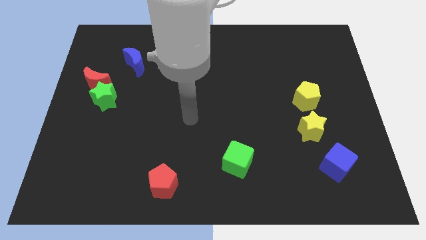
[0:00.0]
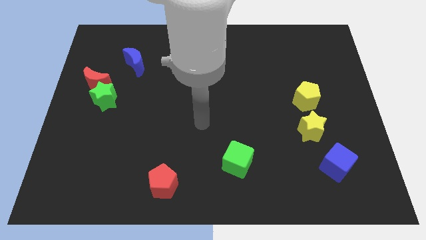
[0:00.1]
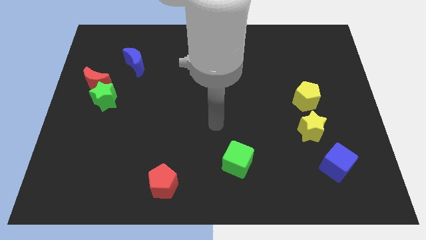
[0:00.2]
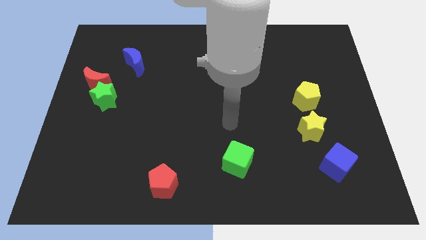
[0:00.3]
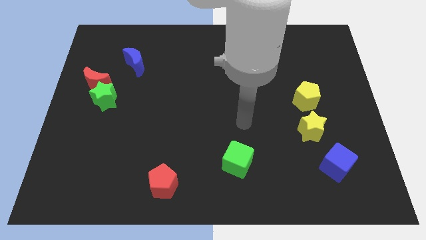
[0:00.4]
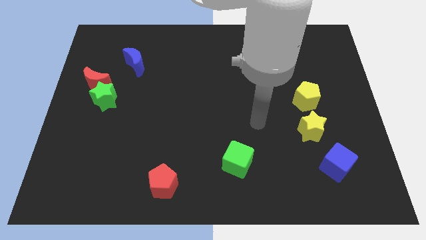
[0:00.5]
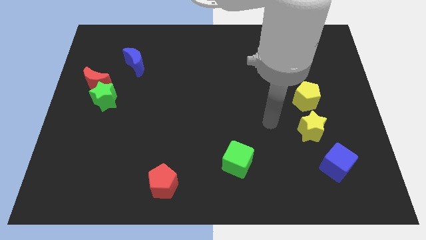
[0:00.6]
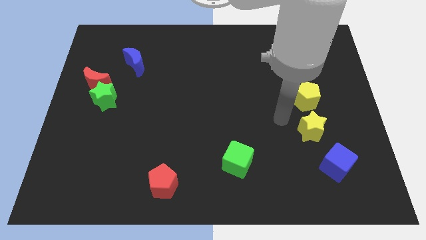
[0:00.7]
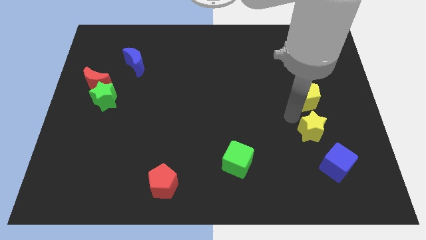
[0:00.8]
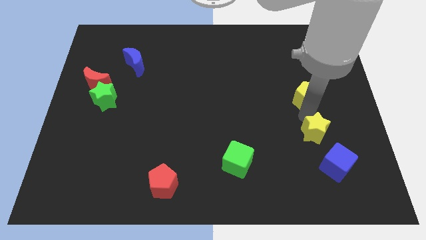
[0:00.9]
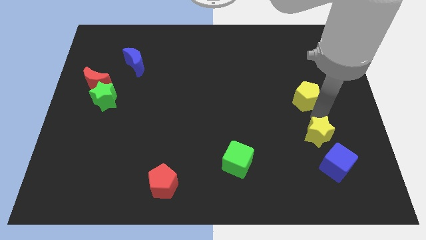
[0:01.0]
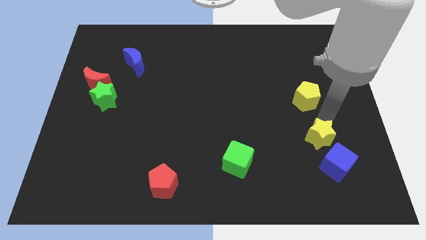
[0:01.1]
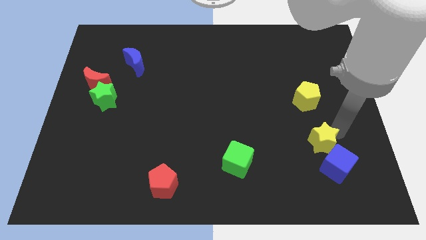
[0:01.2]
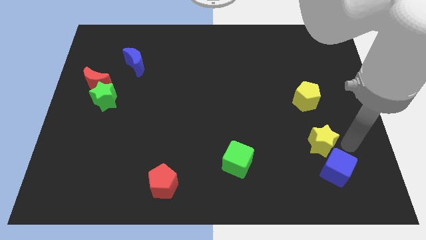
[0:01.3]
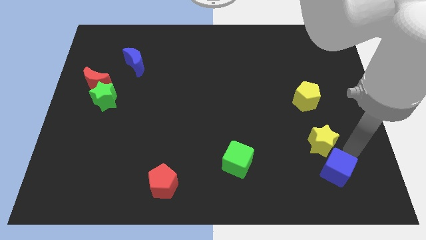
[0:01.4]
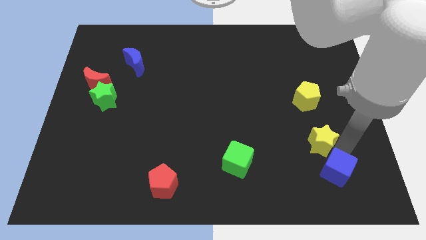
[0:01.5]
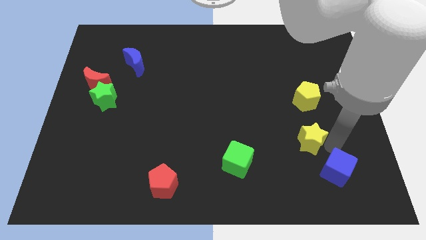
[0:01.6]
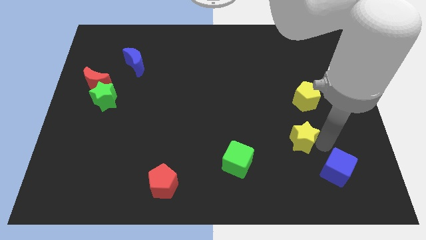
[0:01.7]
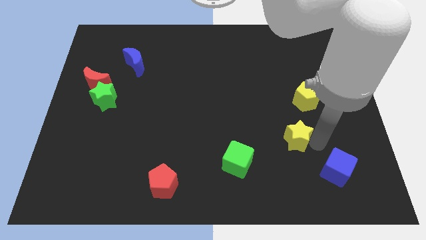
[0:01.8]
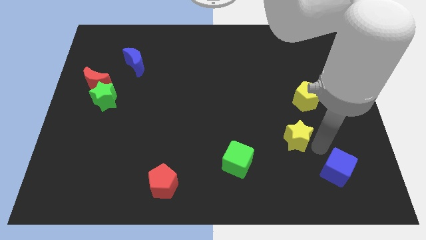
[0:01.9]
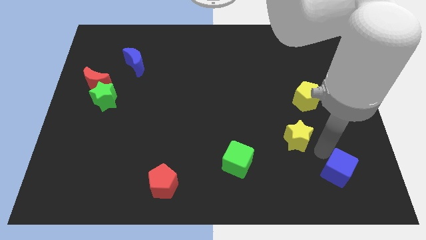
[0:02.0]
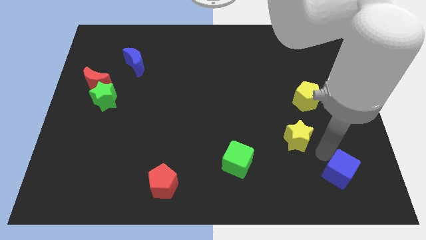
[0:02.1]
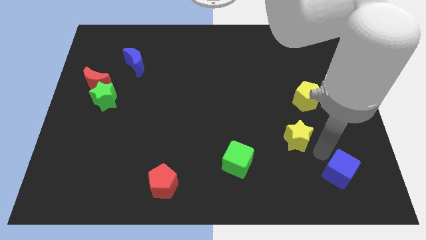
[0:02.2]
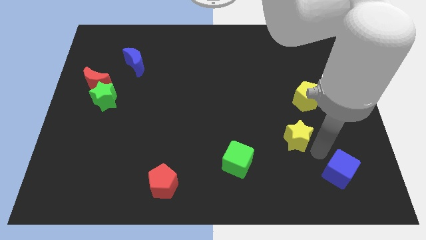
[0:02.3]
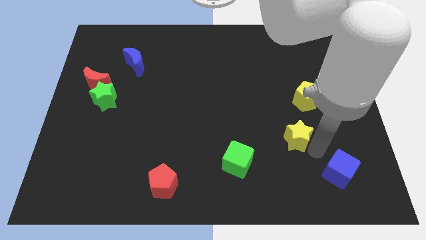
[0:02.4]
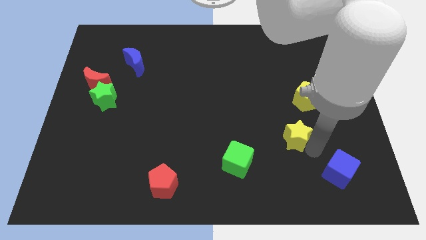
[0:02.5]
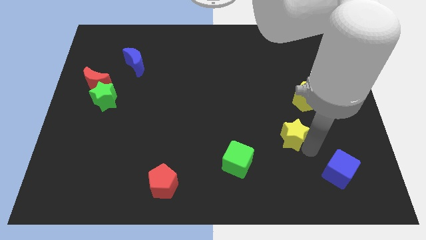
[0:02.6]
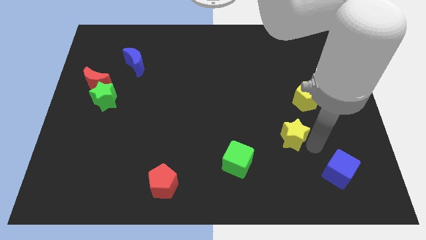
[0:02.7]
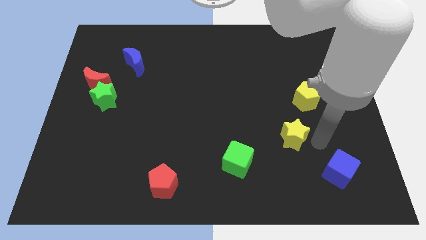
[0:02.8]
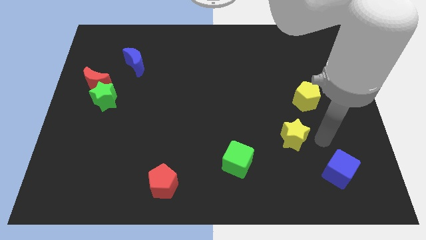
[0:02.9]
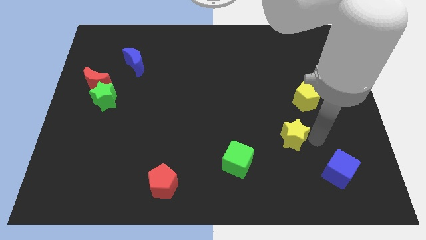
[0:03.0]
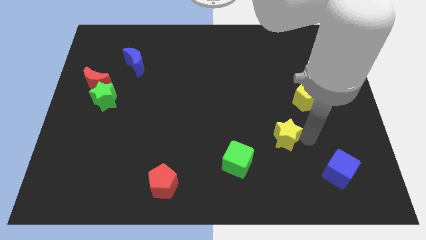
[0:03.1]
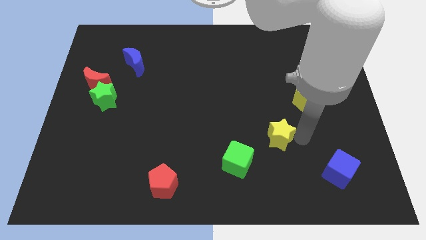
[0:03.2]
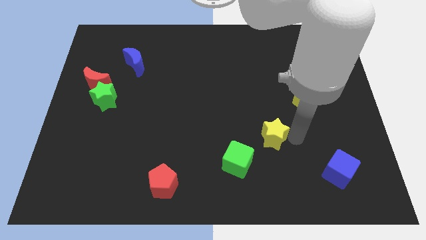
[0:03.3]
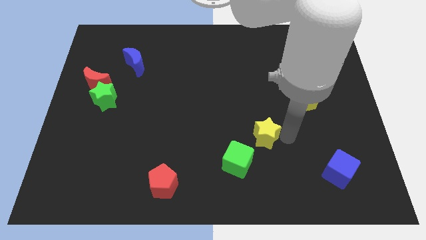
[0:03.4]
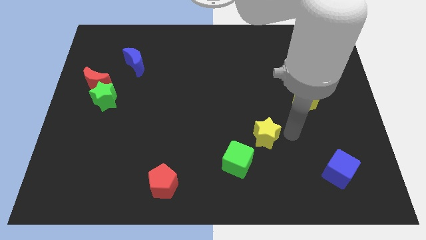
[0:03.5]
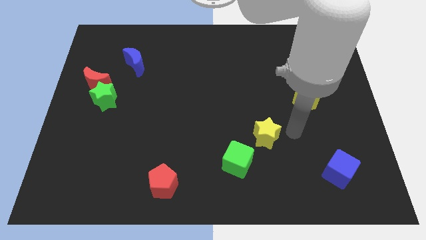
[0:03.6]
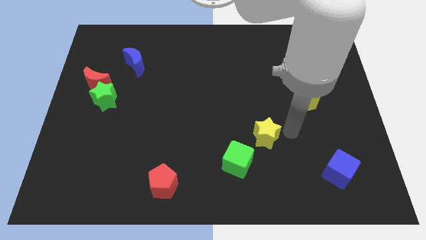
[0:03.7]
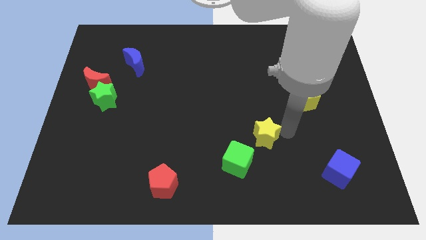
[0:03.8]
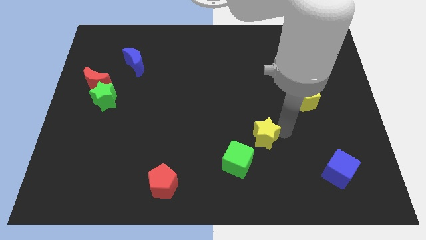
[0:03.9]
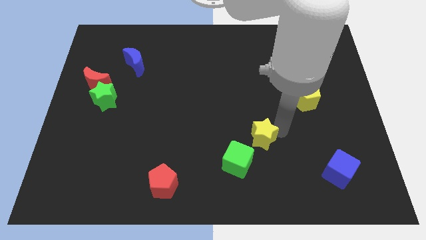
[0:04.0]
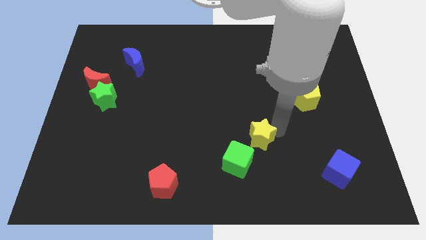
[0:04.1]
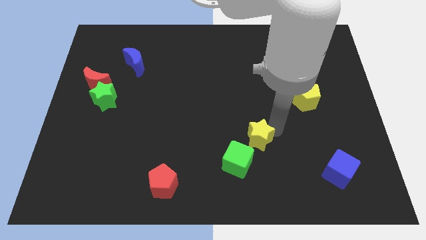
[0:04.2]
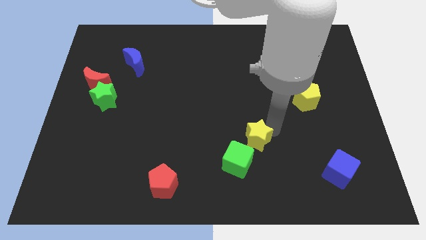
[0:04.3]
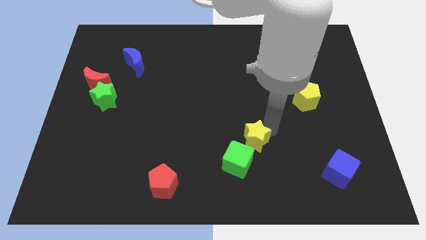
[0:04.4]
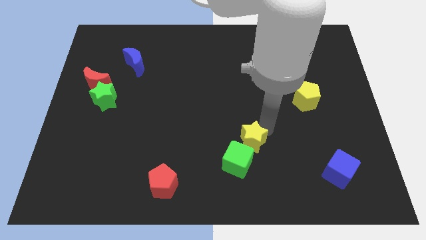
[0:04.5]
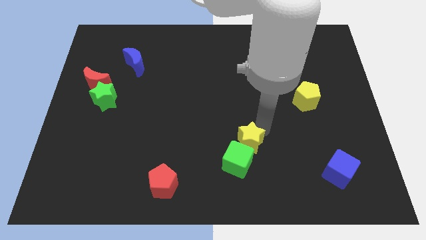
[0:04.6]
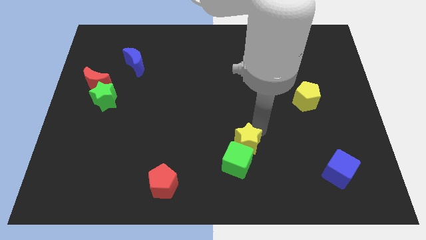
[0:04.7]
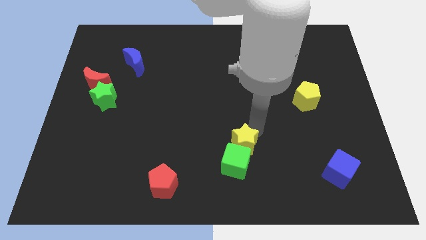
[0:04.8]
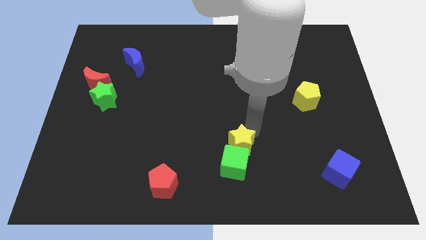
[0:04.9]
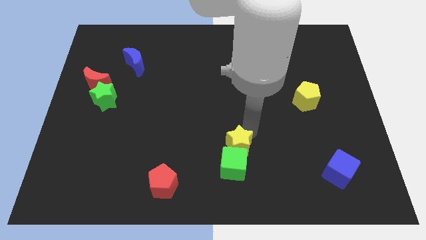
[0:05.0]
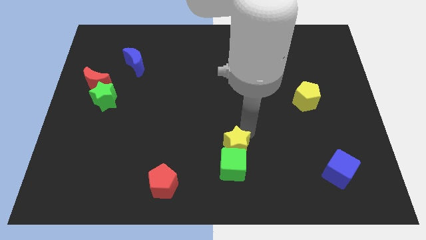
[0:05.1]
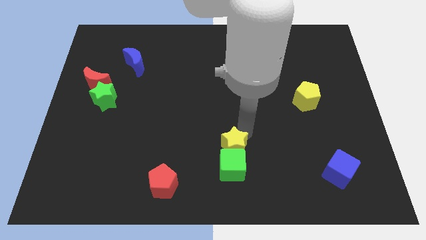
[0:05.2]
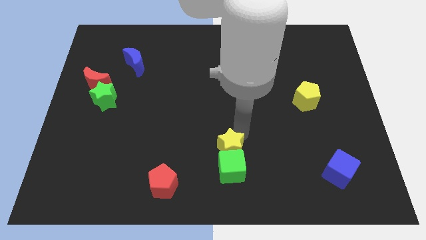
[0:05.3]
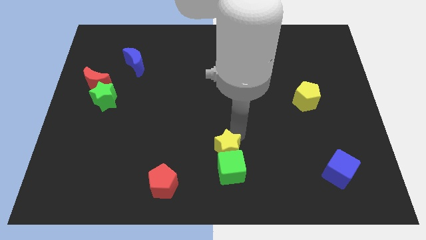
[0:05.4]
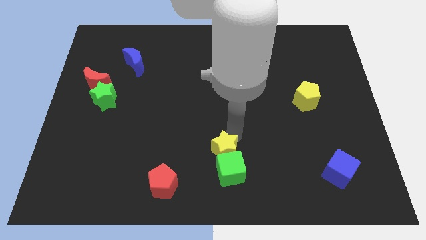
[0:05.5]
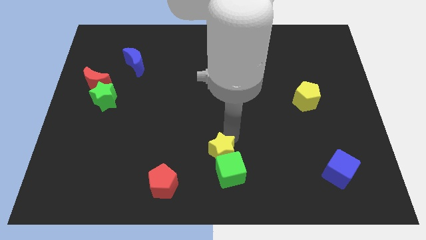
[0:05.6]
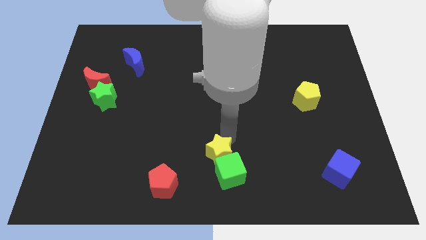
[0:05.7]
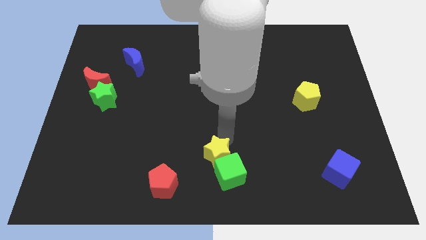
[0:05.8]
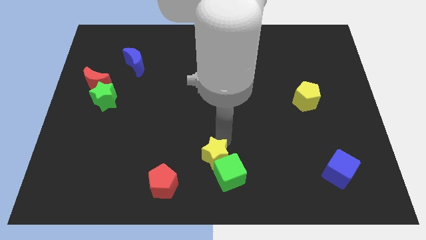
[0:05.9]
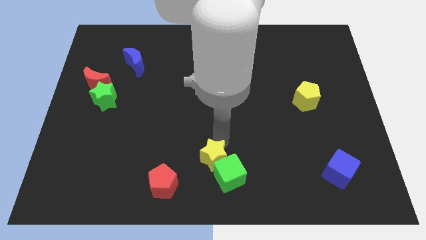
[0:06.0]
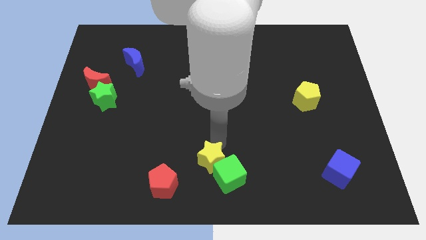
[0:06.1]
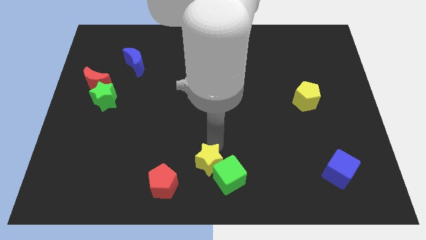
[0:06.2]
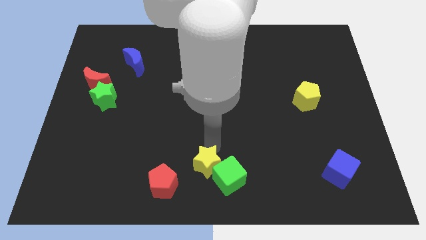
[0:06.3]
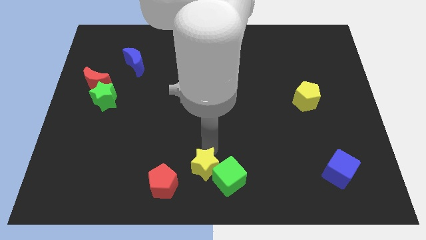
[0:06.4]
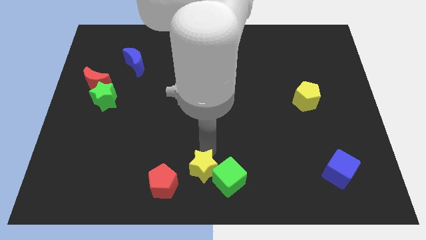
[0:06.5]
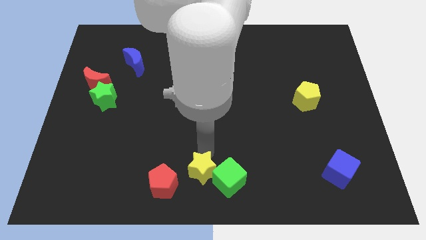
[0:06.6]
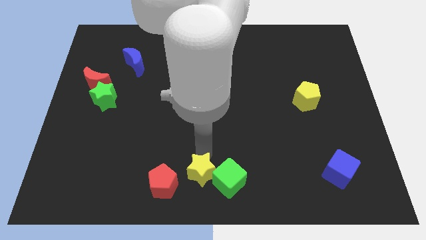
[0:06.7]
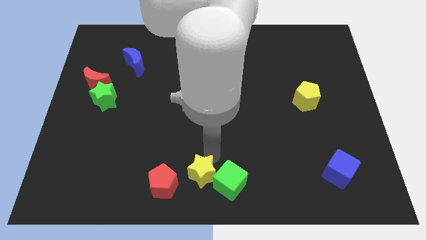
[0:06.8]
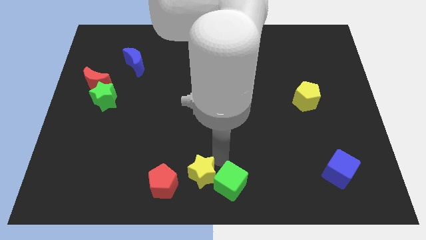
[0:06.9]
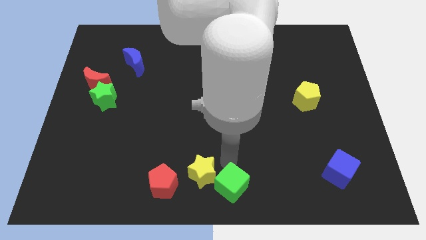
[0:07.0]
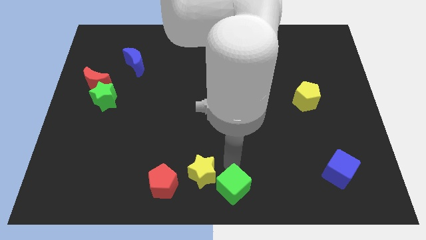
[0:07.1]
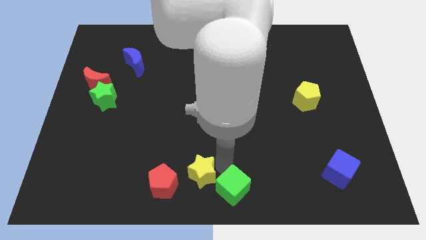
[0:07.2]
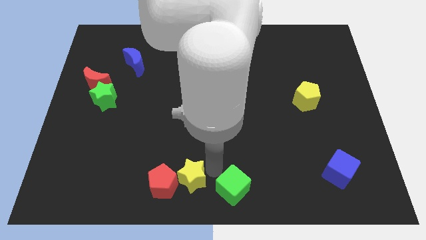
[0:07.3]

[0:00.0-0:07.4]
move the yellow star to the red pentagon

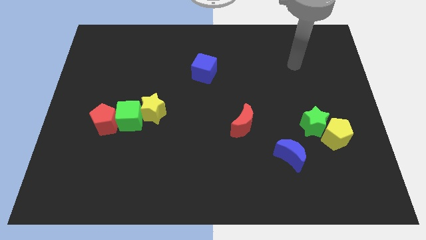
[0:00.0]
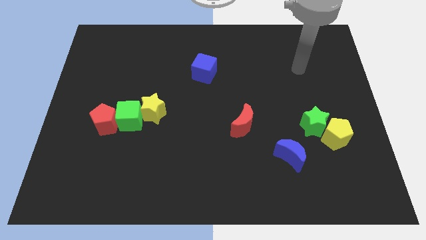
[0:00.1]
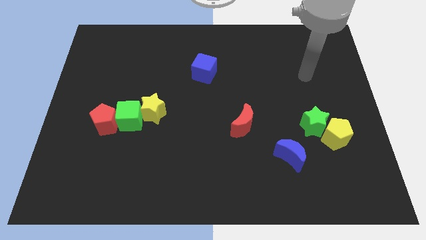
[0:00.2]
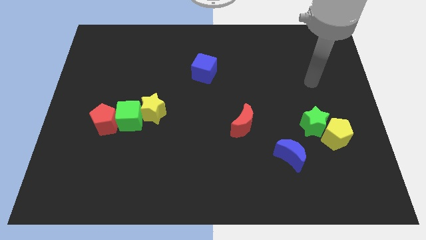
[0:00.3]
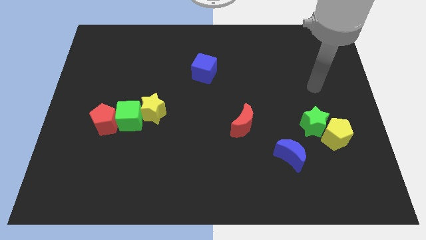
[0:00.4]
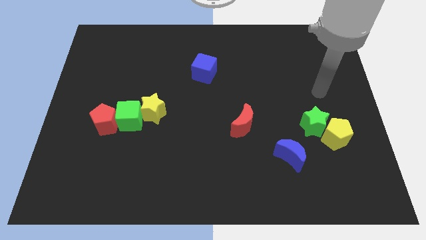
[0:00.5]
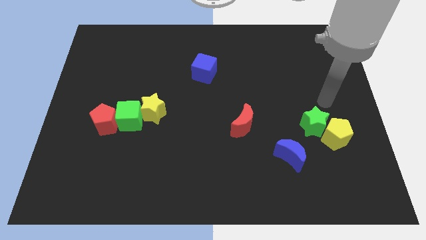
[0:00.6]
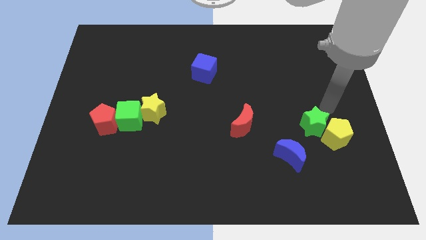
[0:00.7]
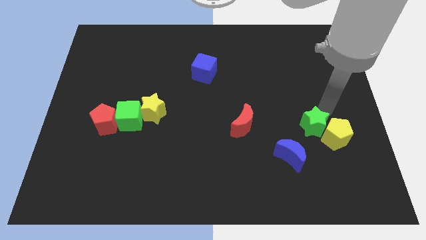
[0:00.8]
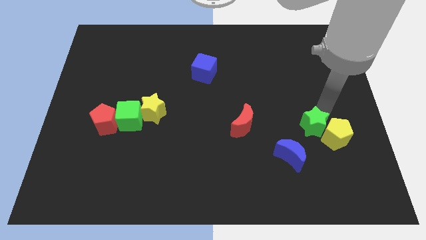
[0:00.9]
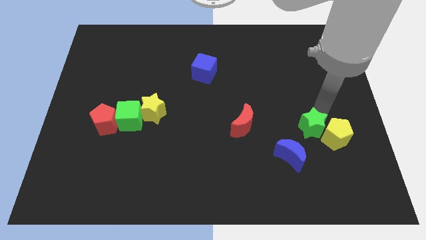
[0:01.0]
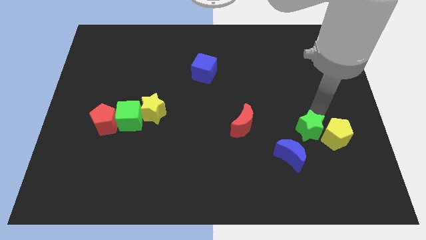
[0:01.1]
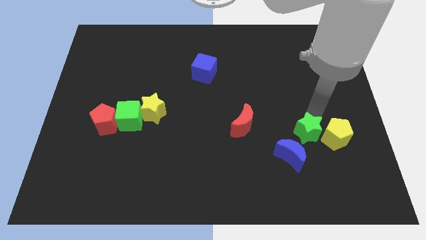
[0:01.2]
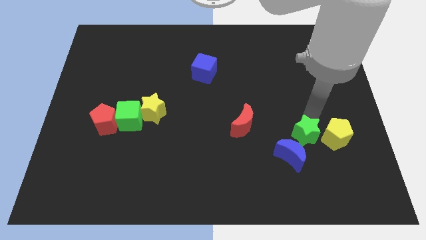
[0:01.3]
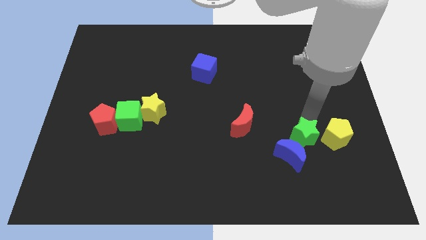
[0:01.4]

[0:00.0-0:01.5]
move the green star close to the blue moon
